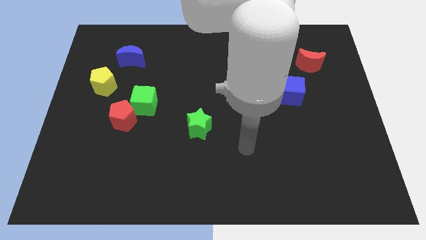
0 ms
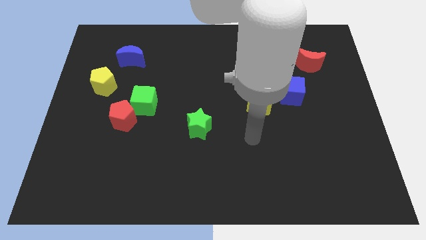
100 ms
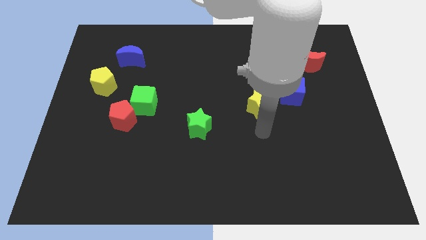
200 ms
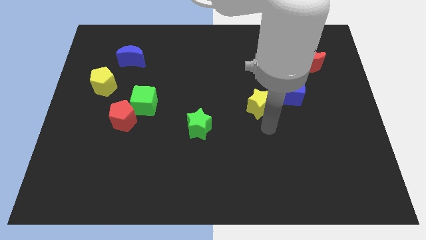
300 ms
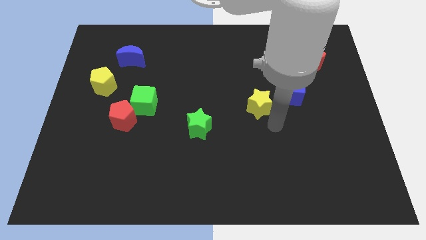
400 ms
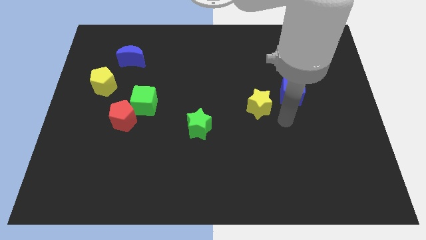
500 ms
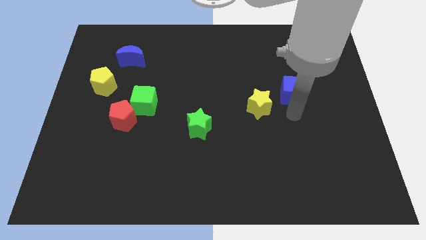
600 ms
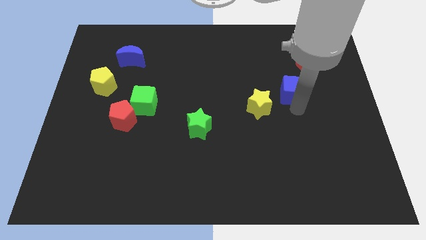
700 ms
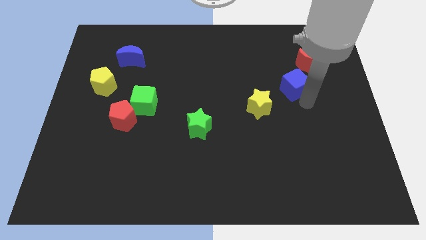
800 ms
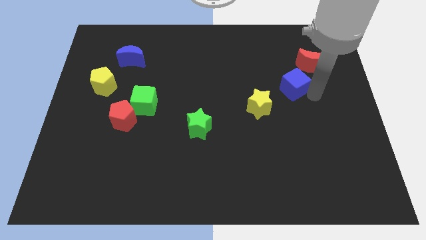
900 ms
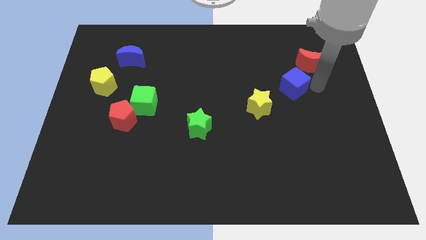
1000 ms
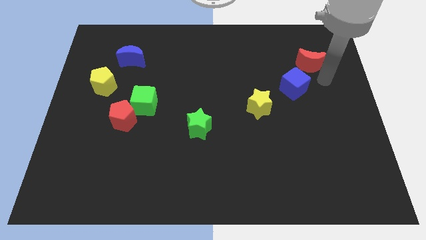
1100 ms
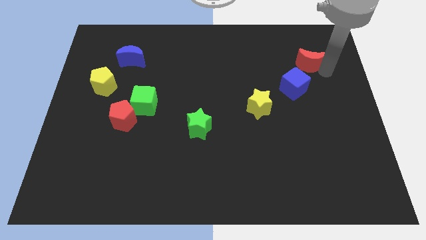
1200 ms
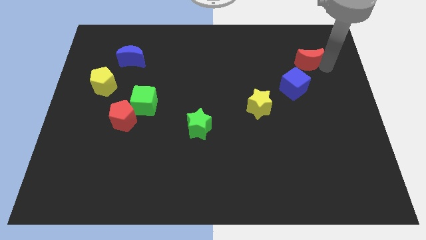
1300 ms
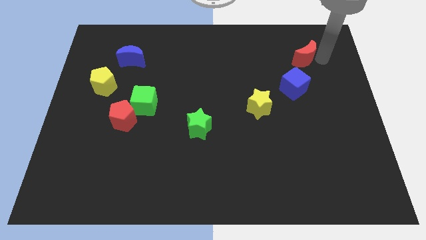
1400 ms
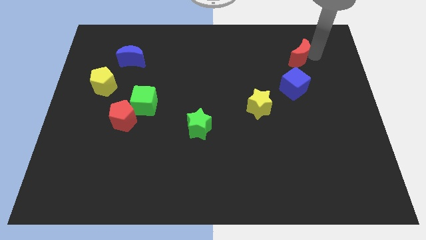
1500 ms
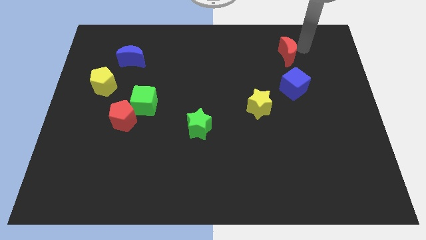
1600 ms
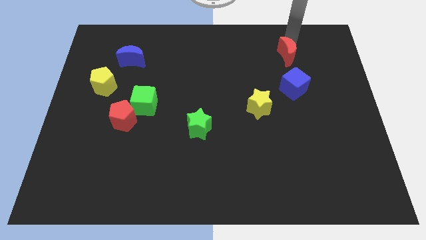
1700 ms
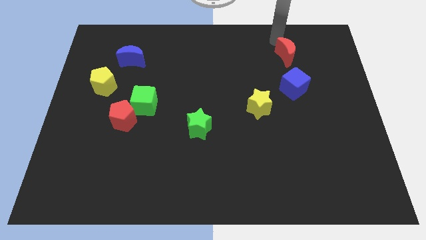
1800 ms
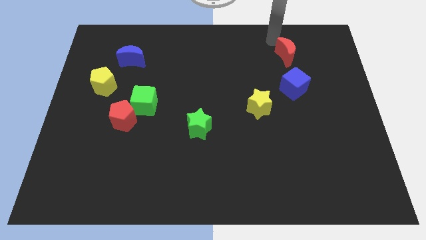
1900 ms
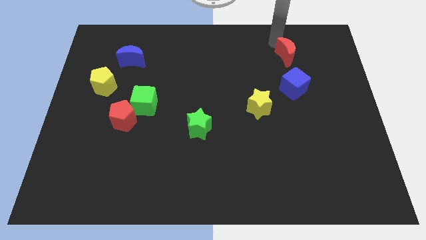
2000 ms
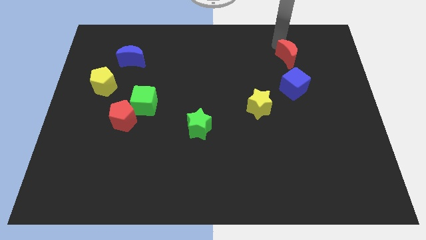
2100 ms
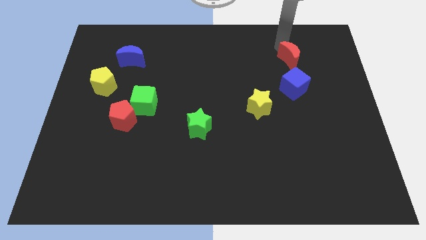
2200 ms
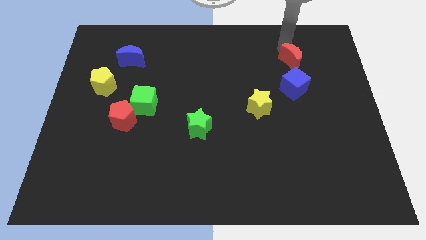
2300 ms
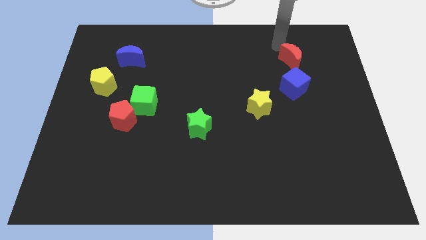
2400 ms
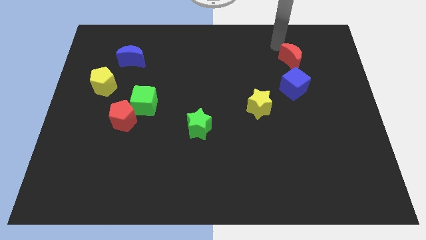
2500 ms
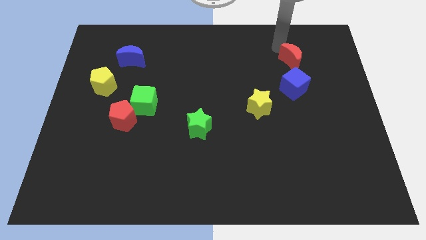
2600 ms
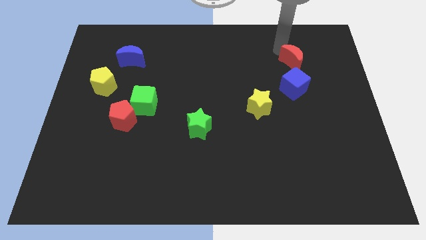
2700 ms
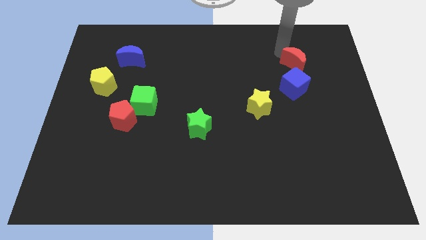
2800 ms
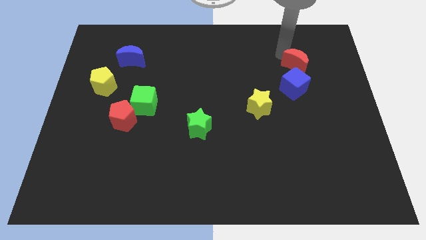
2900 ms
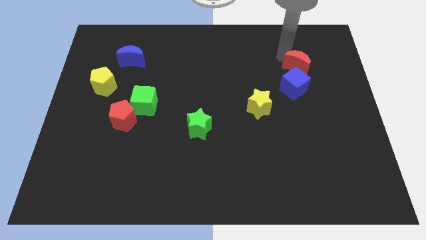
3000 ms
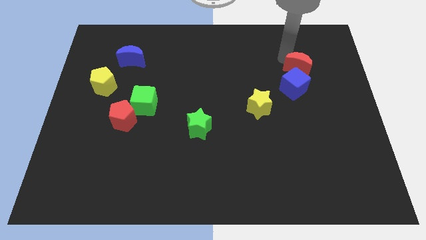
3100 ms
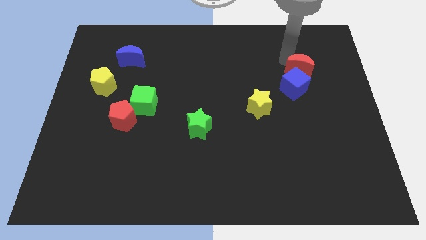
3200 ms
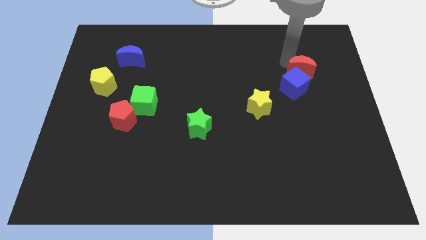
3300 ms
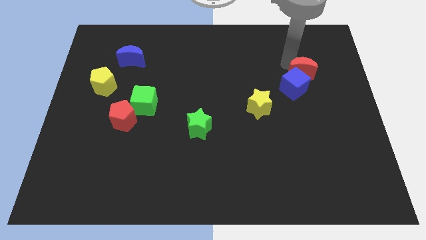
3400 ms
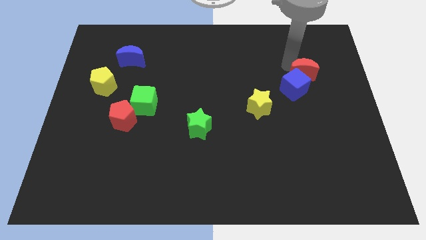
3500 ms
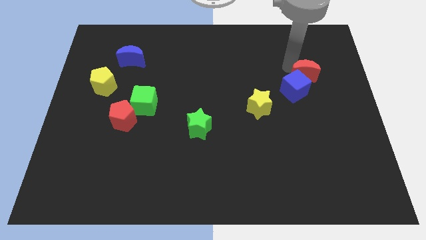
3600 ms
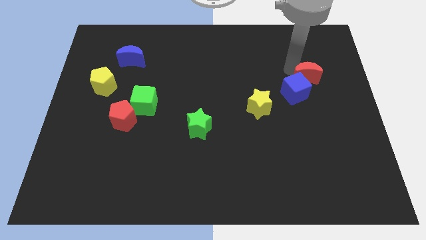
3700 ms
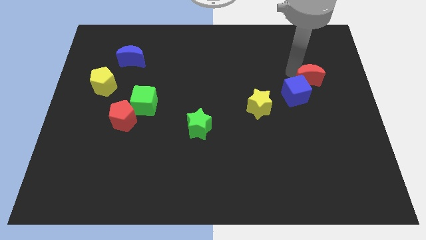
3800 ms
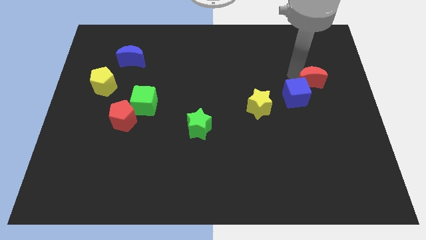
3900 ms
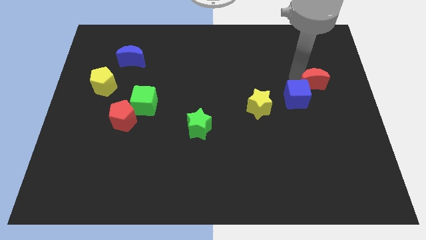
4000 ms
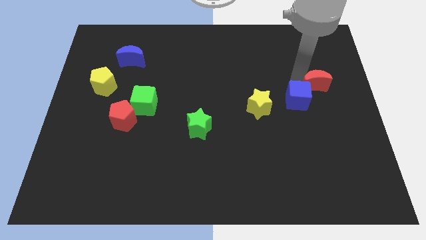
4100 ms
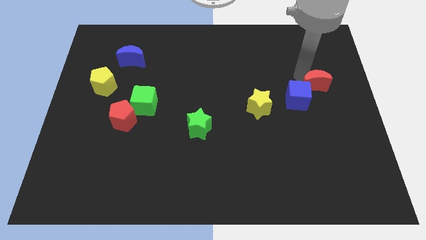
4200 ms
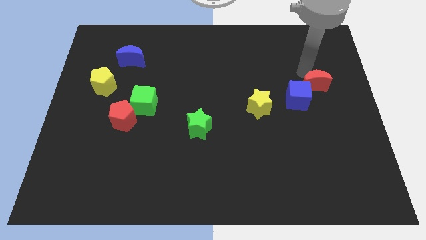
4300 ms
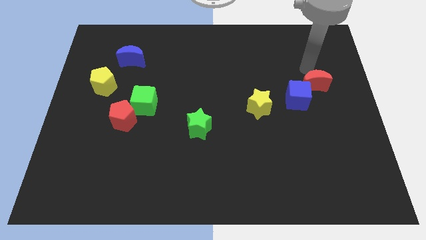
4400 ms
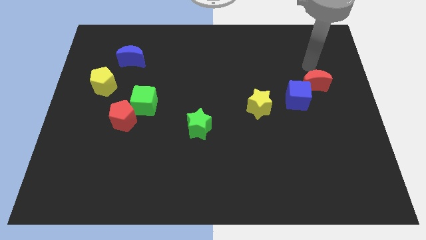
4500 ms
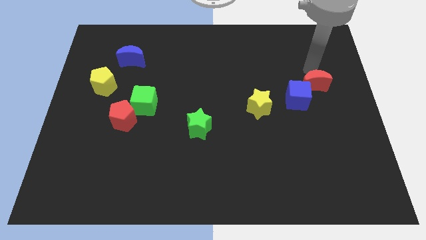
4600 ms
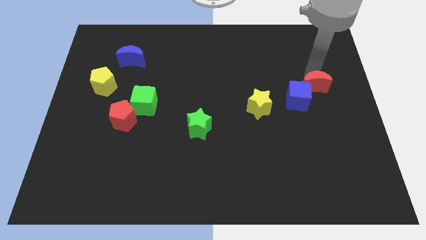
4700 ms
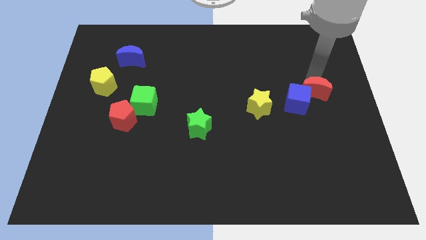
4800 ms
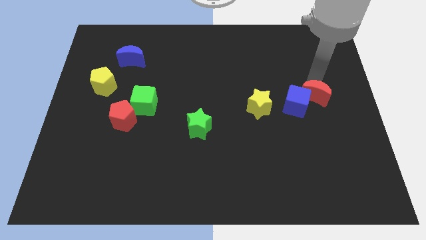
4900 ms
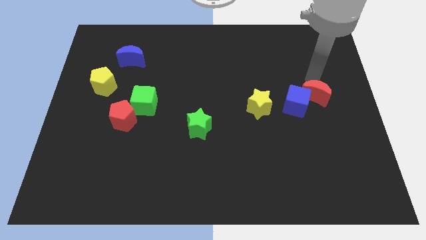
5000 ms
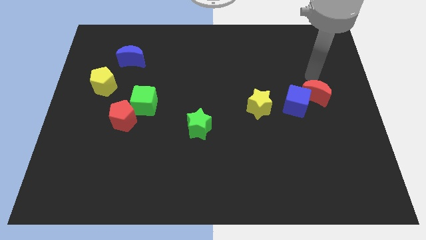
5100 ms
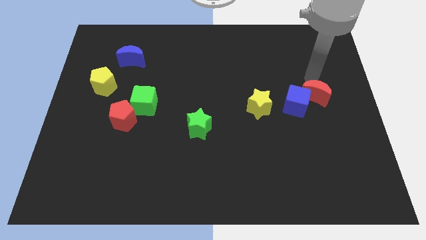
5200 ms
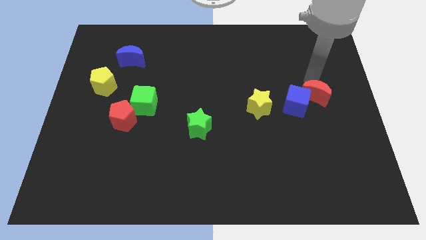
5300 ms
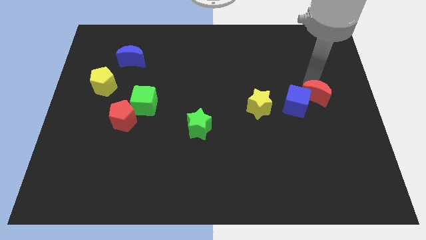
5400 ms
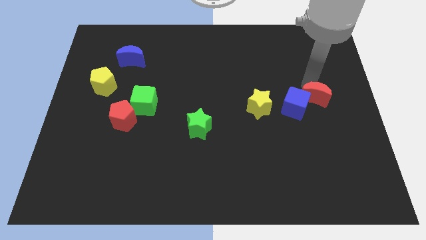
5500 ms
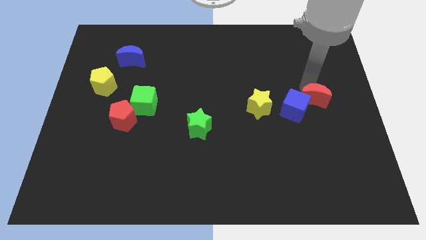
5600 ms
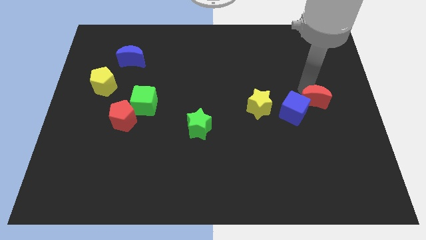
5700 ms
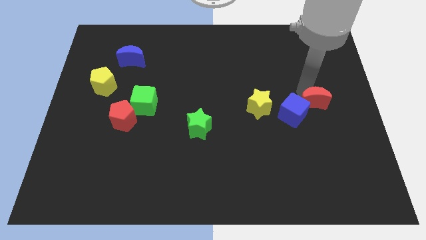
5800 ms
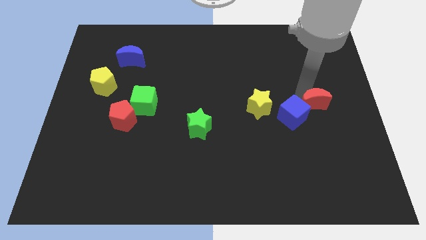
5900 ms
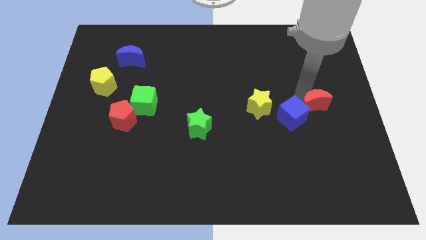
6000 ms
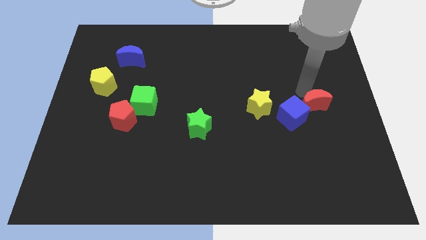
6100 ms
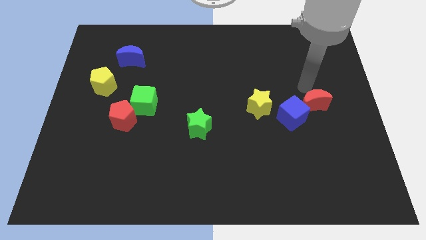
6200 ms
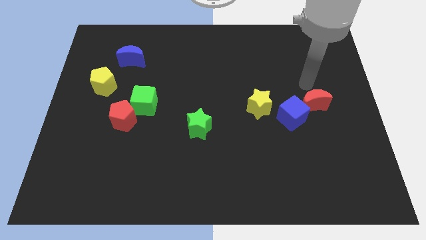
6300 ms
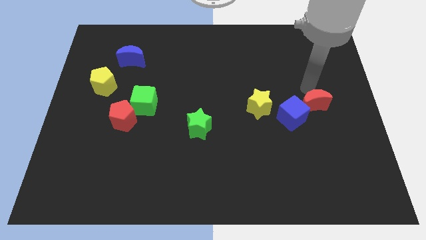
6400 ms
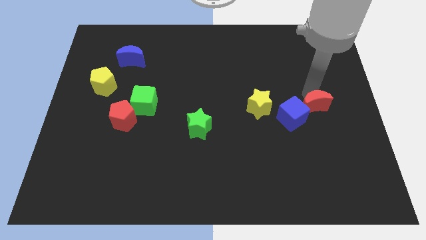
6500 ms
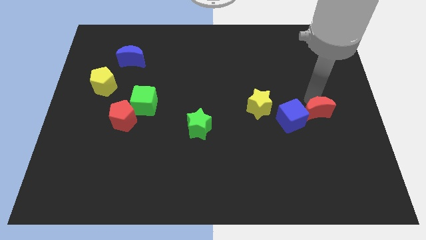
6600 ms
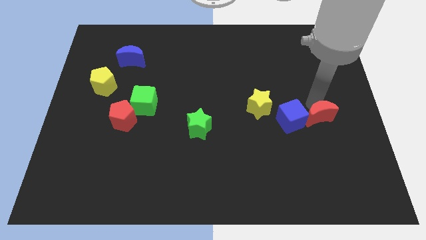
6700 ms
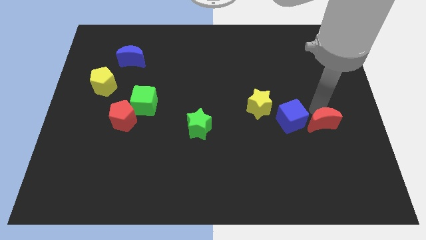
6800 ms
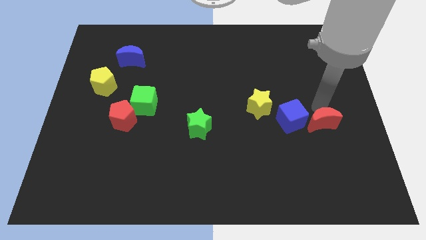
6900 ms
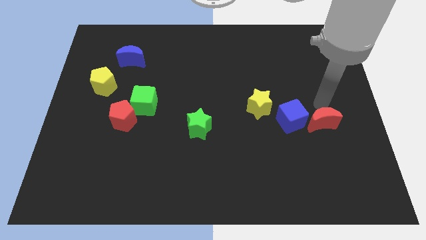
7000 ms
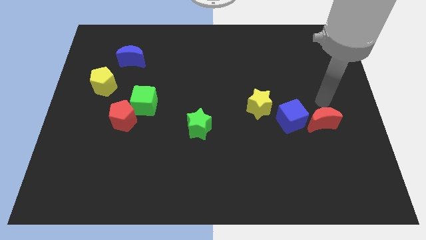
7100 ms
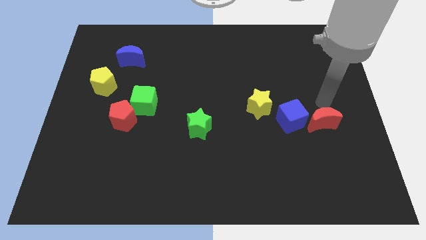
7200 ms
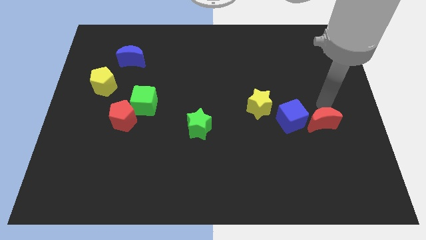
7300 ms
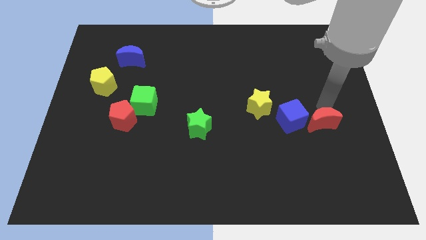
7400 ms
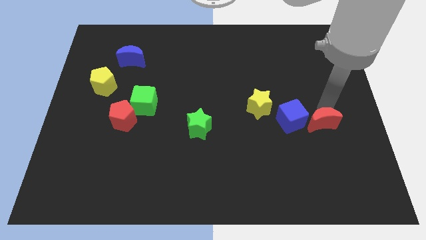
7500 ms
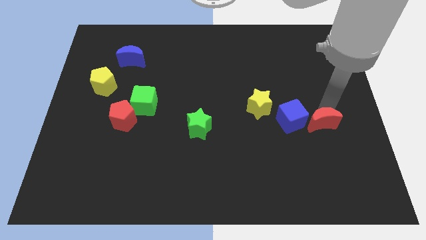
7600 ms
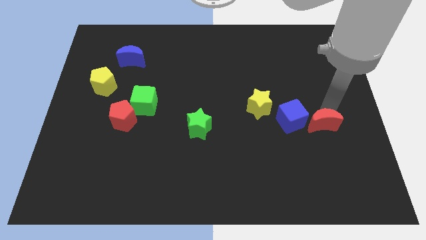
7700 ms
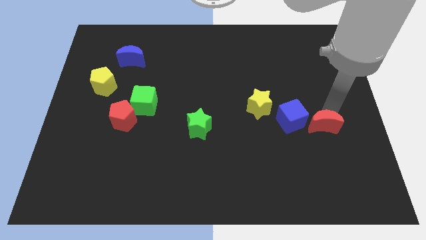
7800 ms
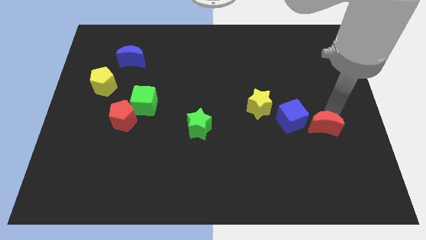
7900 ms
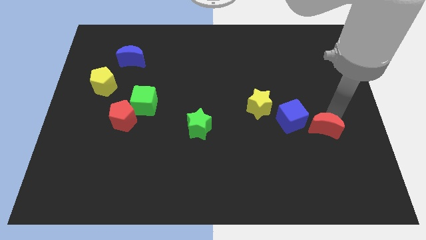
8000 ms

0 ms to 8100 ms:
move the red moon down

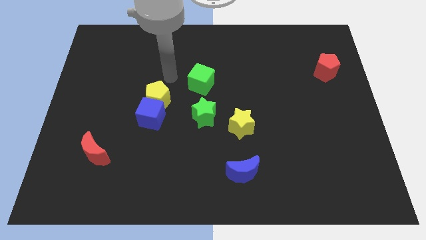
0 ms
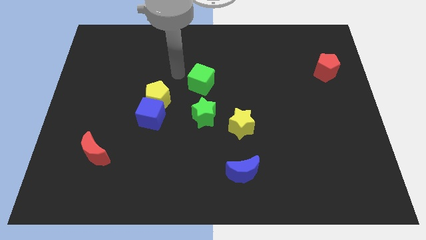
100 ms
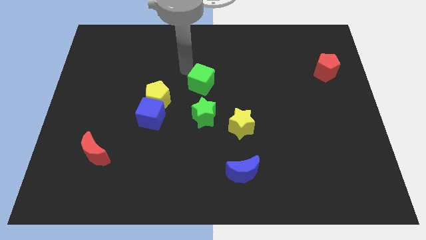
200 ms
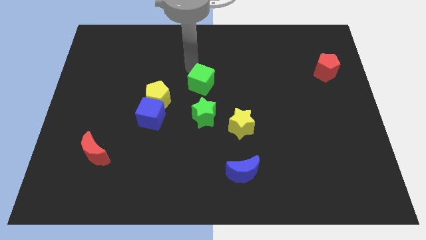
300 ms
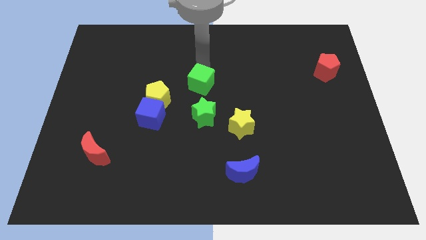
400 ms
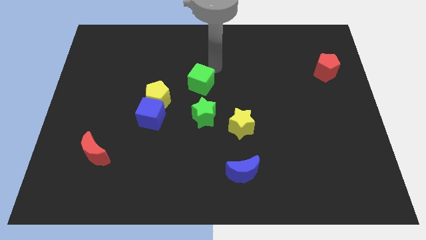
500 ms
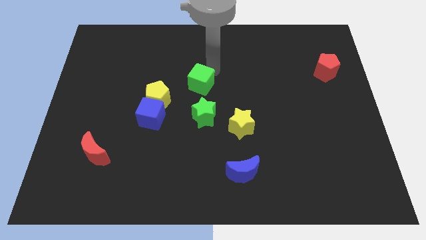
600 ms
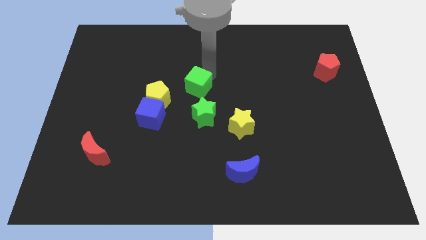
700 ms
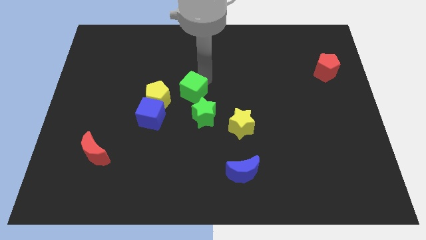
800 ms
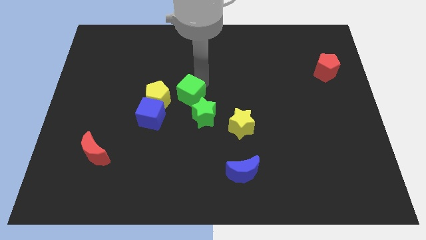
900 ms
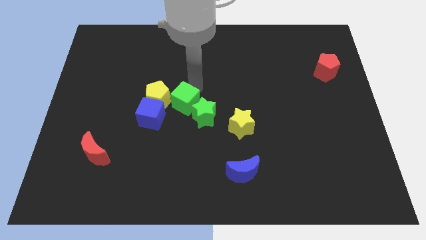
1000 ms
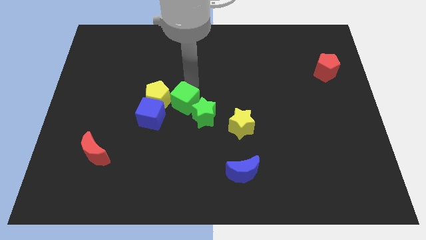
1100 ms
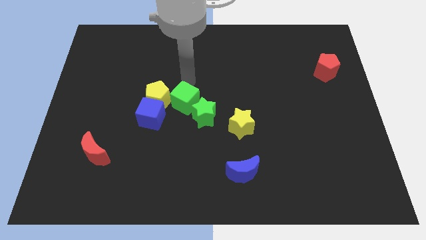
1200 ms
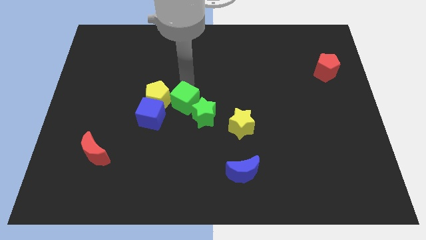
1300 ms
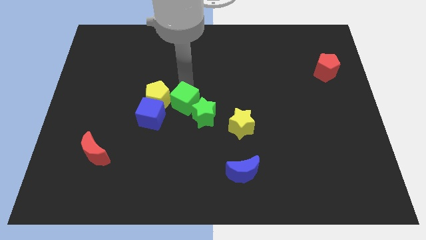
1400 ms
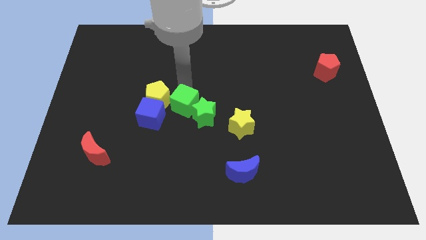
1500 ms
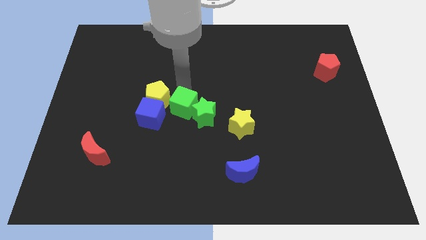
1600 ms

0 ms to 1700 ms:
push the green cube a bit down
